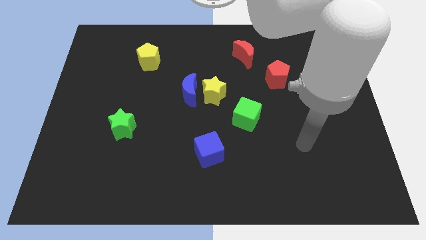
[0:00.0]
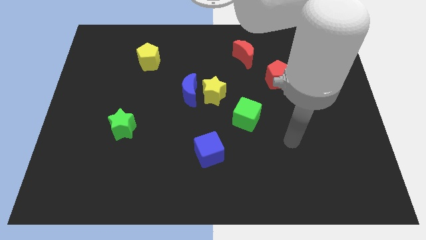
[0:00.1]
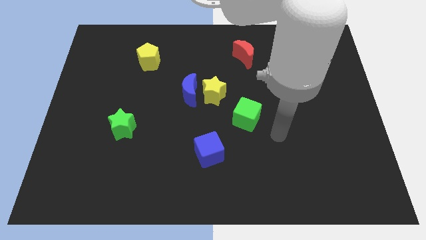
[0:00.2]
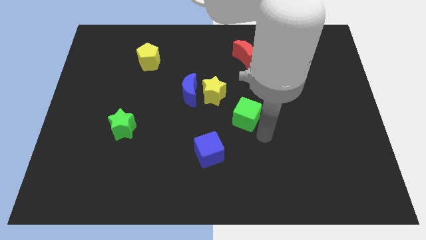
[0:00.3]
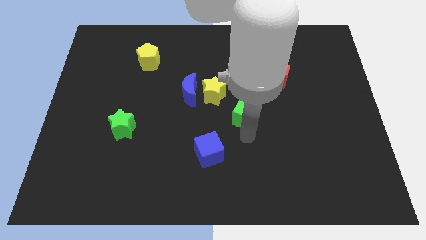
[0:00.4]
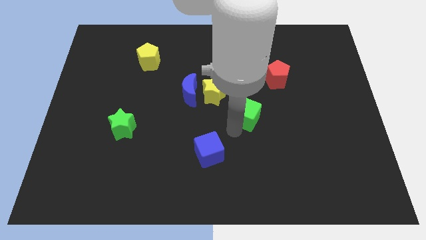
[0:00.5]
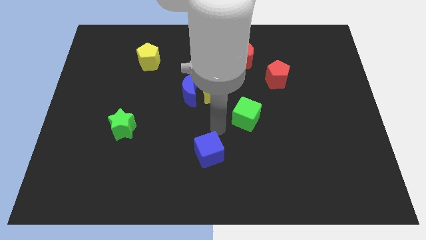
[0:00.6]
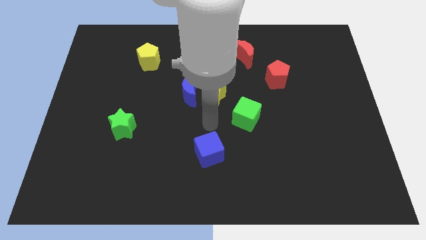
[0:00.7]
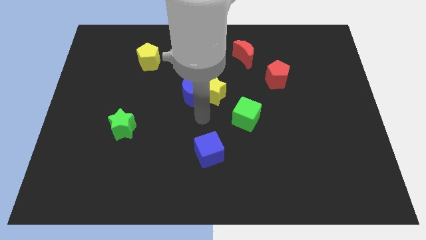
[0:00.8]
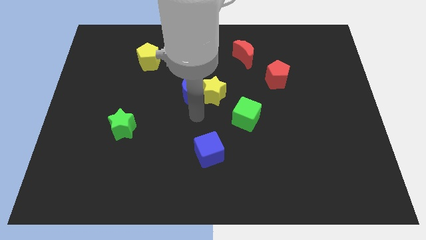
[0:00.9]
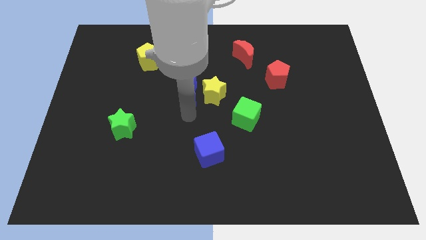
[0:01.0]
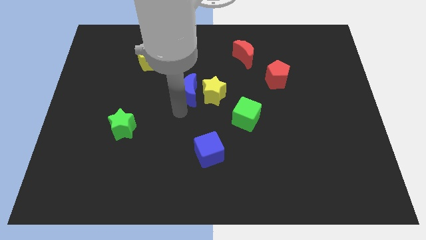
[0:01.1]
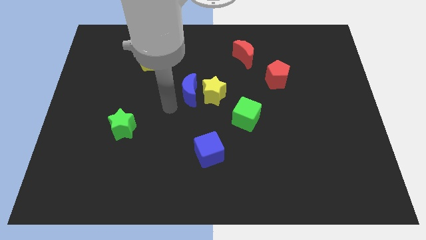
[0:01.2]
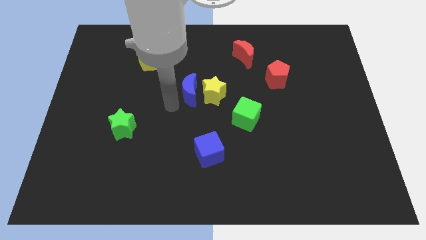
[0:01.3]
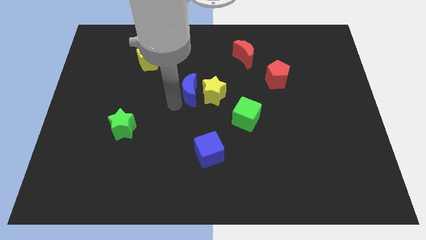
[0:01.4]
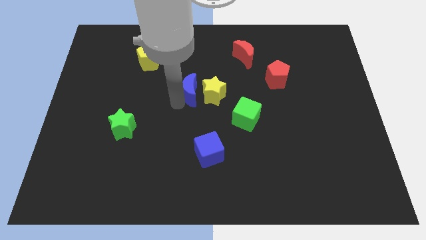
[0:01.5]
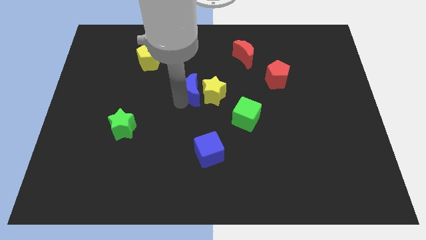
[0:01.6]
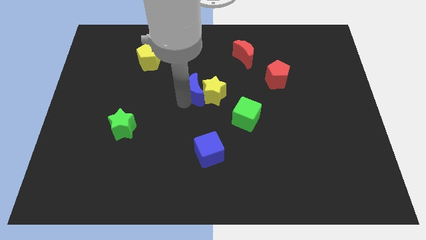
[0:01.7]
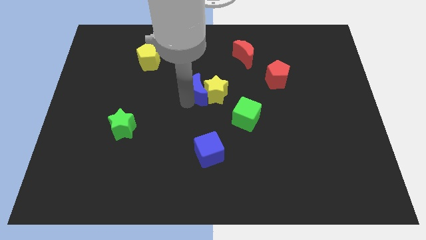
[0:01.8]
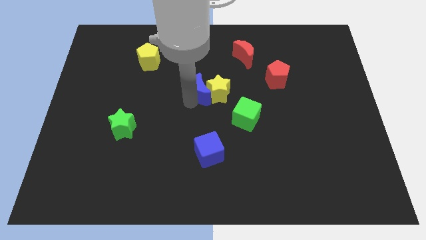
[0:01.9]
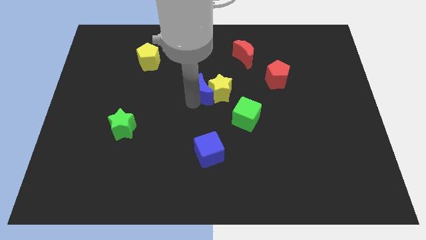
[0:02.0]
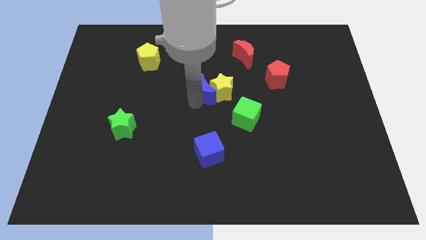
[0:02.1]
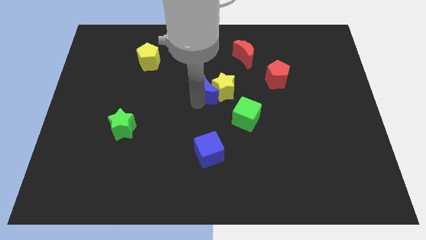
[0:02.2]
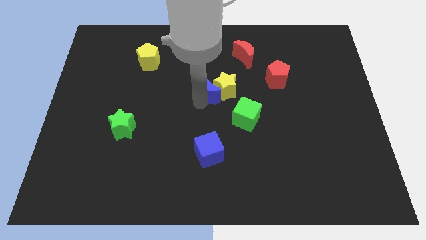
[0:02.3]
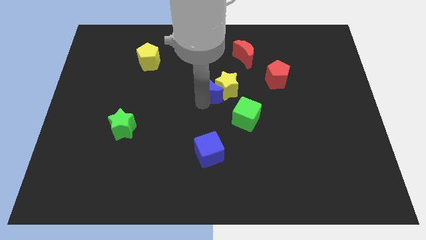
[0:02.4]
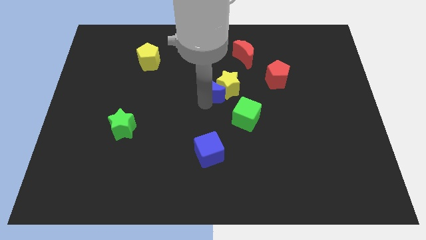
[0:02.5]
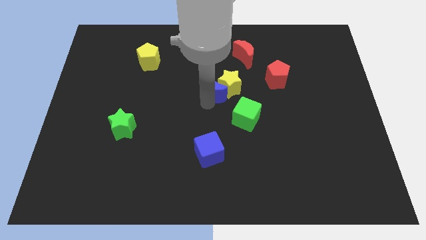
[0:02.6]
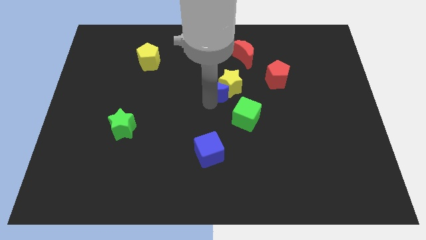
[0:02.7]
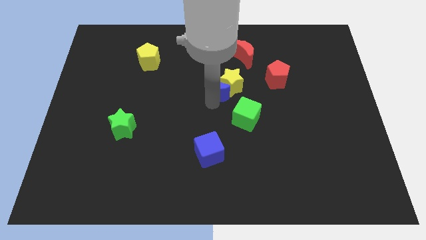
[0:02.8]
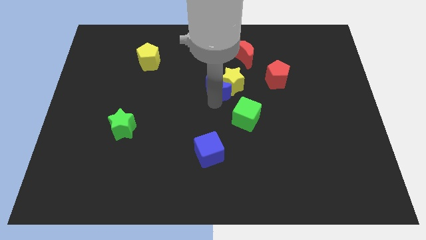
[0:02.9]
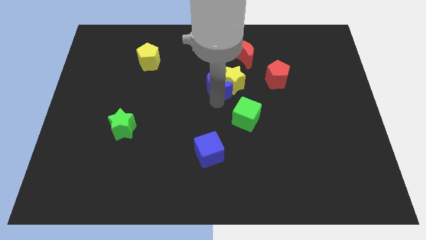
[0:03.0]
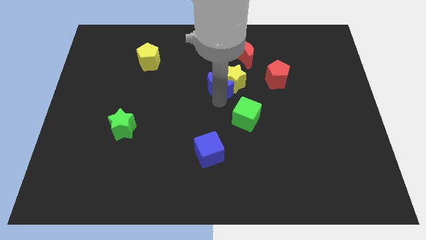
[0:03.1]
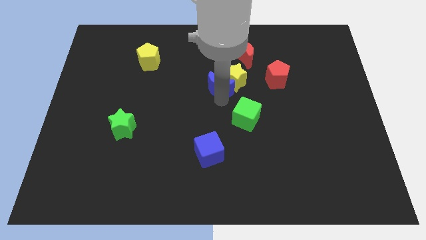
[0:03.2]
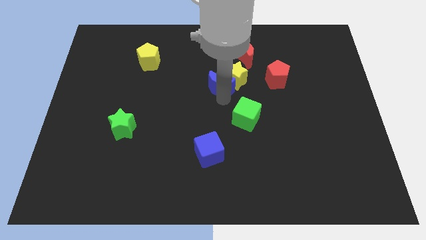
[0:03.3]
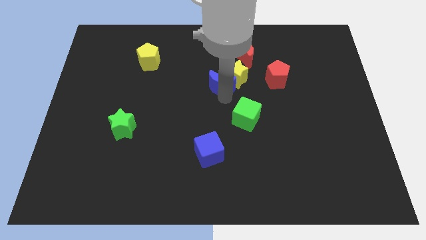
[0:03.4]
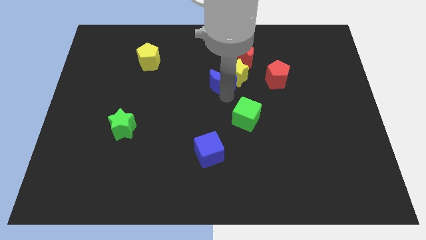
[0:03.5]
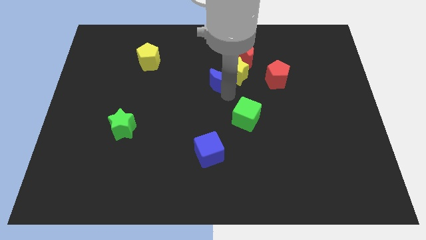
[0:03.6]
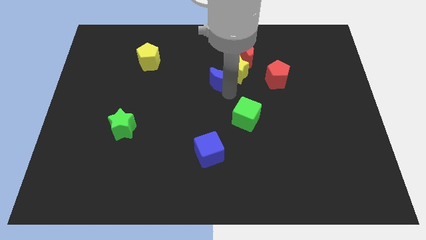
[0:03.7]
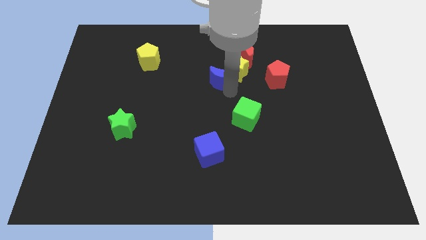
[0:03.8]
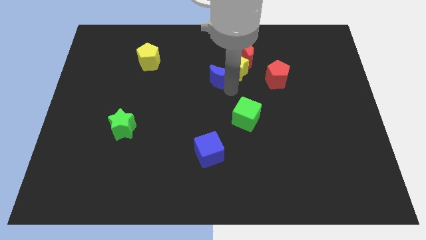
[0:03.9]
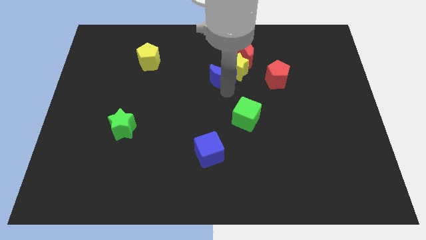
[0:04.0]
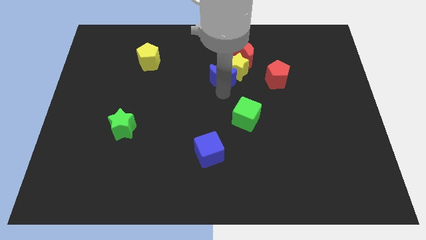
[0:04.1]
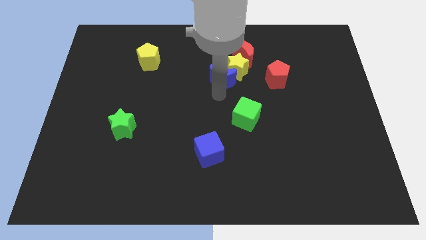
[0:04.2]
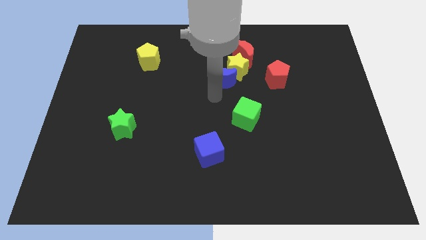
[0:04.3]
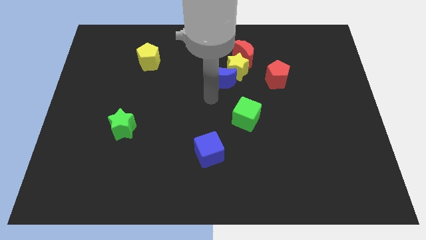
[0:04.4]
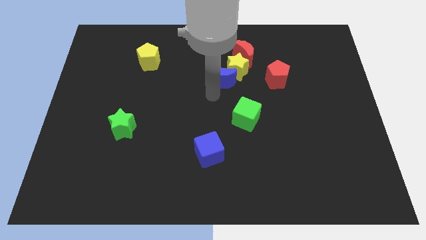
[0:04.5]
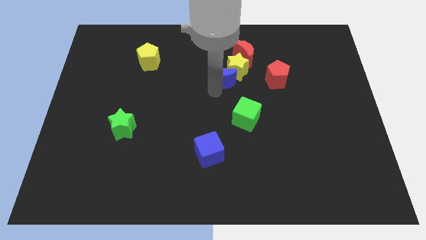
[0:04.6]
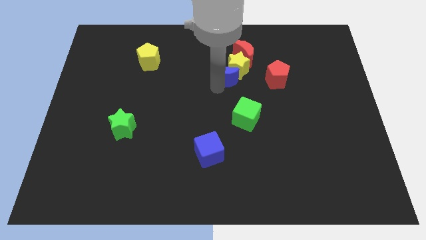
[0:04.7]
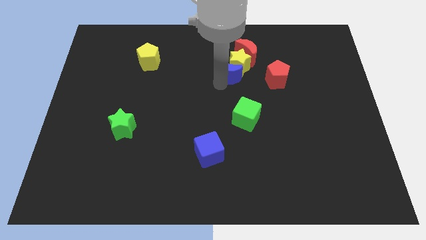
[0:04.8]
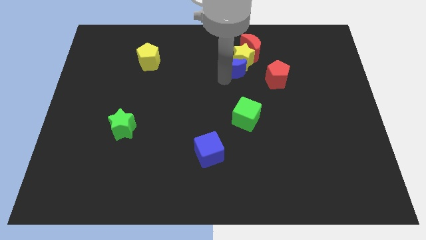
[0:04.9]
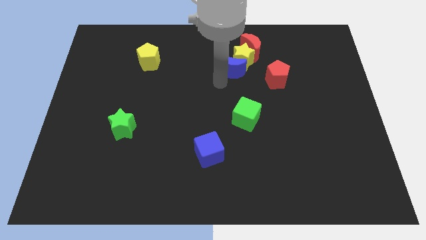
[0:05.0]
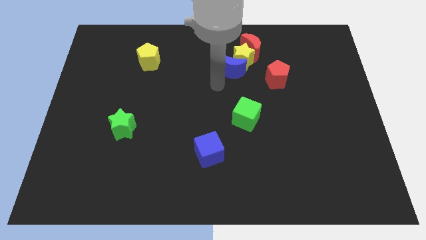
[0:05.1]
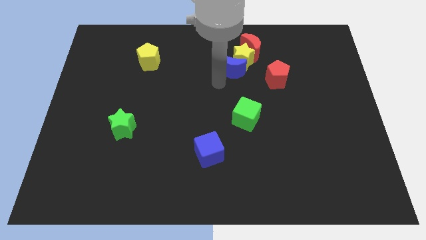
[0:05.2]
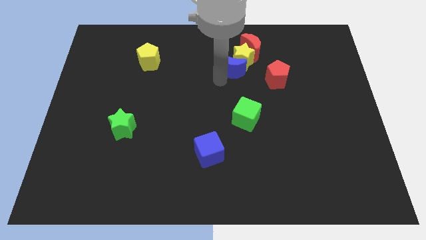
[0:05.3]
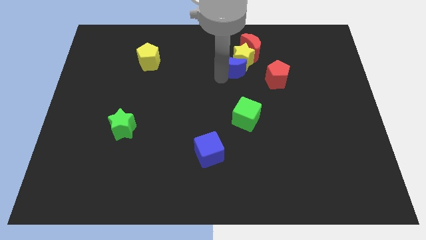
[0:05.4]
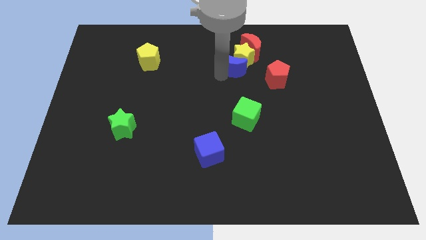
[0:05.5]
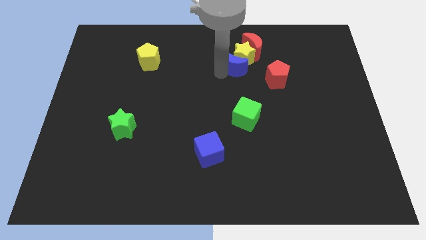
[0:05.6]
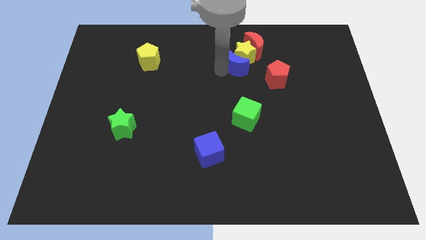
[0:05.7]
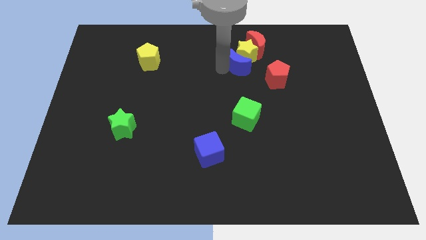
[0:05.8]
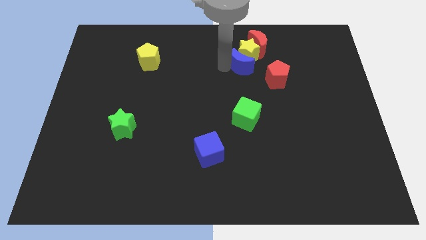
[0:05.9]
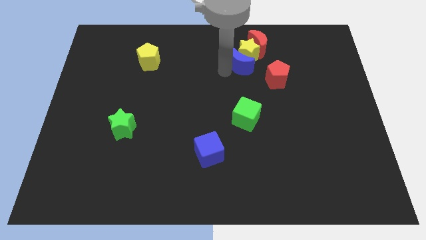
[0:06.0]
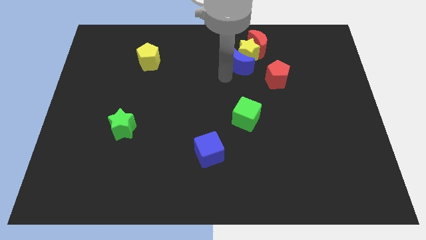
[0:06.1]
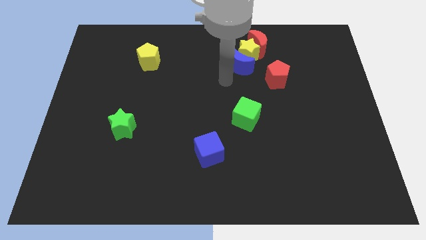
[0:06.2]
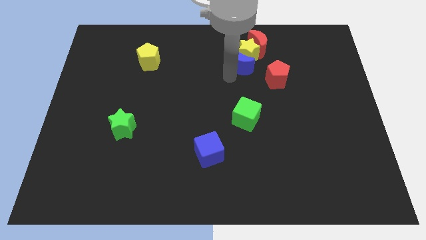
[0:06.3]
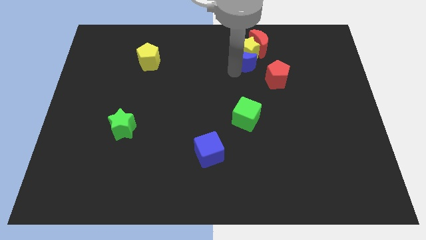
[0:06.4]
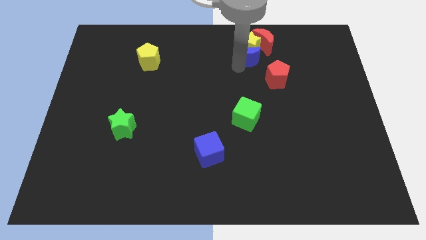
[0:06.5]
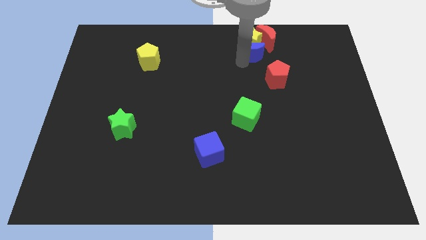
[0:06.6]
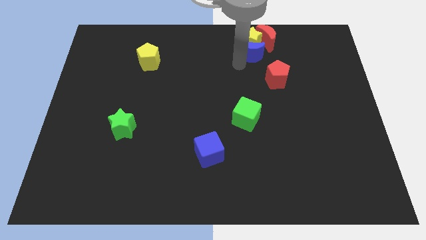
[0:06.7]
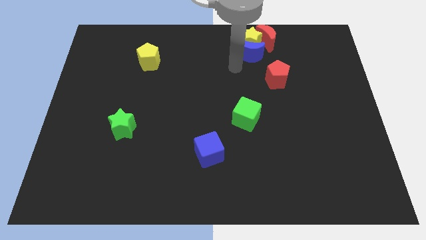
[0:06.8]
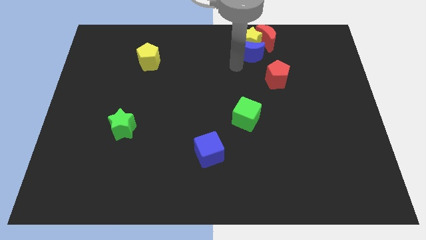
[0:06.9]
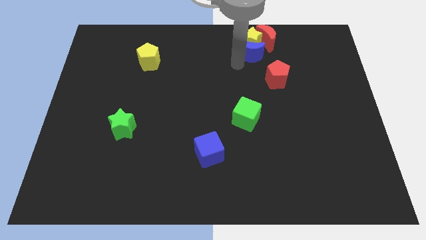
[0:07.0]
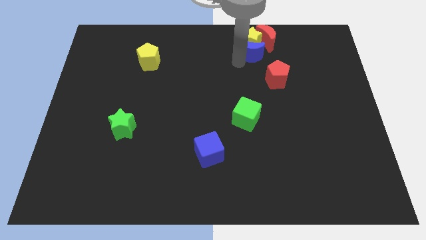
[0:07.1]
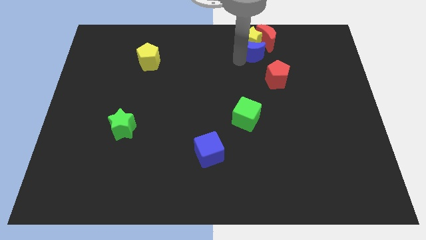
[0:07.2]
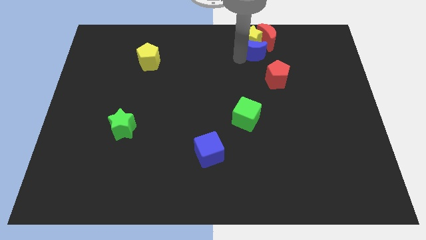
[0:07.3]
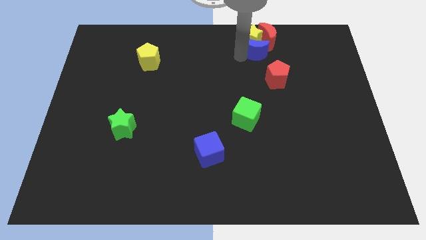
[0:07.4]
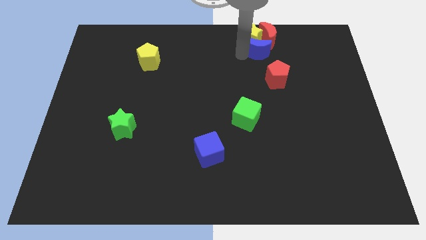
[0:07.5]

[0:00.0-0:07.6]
push the blue moon close to the red moon

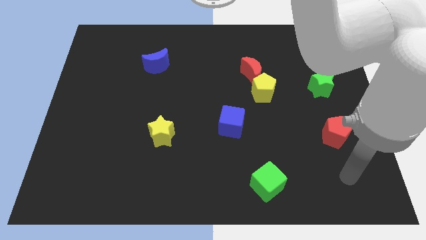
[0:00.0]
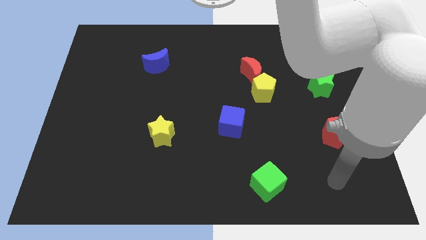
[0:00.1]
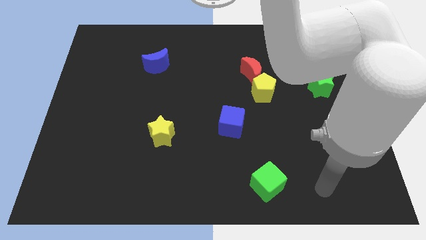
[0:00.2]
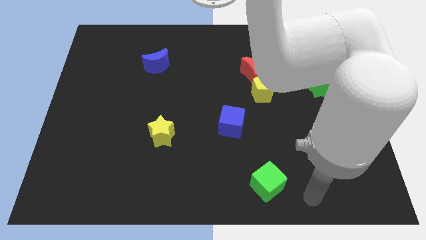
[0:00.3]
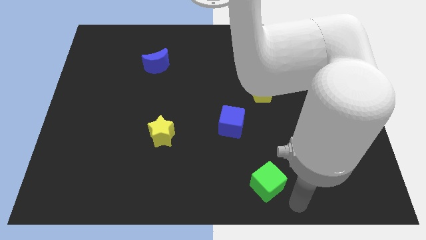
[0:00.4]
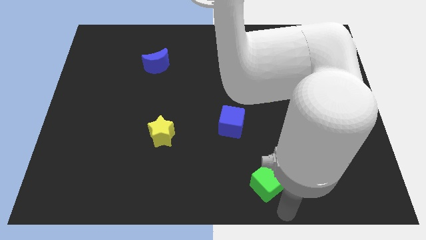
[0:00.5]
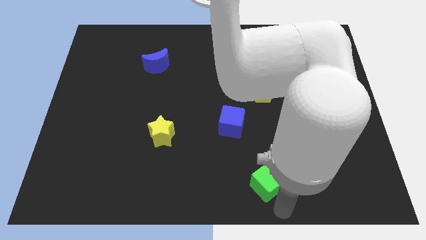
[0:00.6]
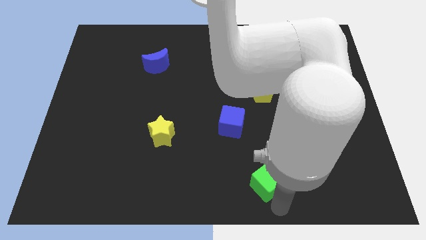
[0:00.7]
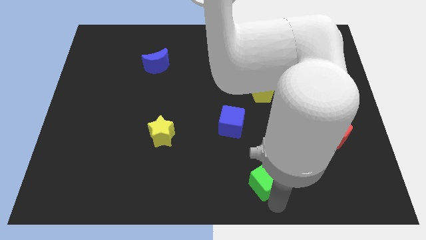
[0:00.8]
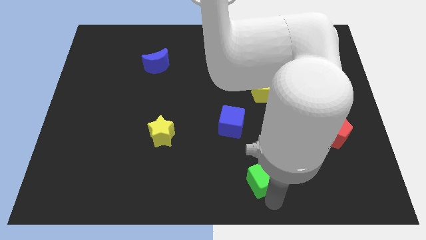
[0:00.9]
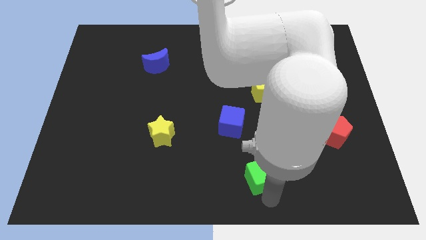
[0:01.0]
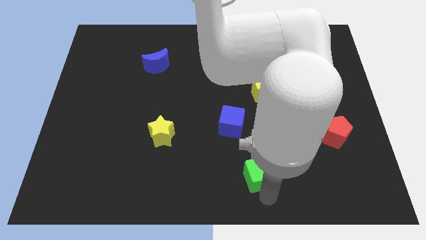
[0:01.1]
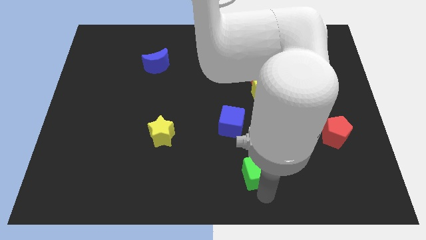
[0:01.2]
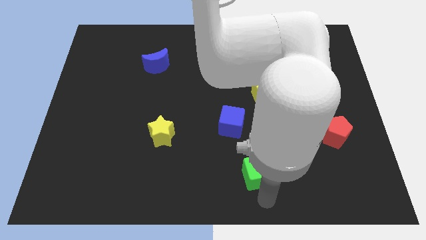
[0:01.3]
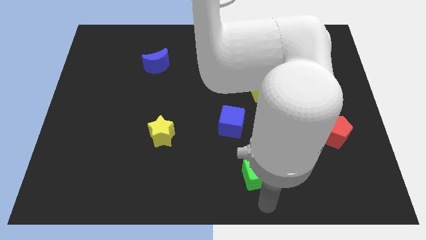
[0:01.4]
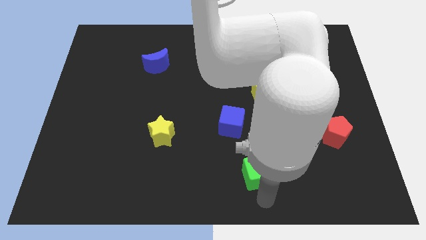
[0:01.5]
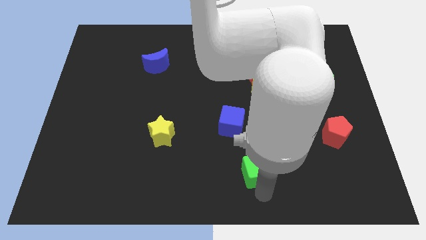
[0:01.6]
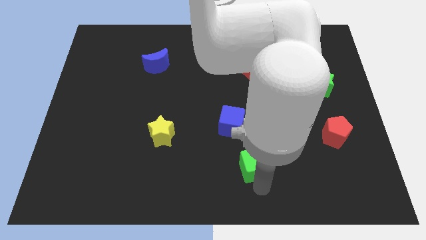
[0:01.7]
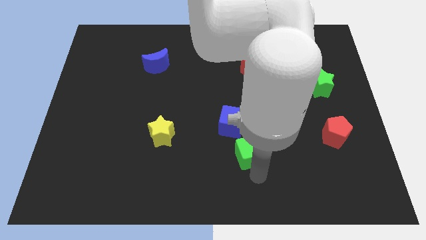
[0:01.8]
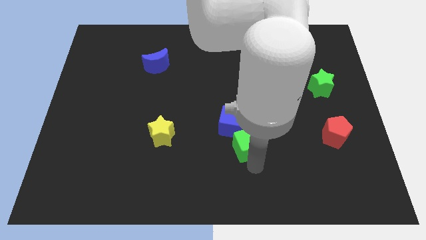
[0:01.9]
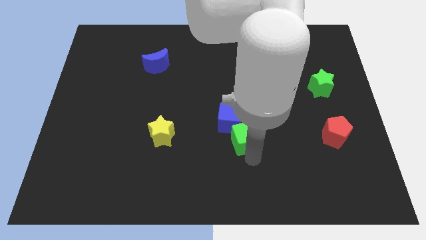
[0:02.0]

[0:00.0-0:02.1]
move the green cube to the blue cube
